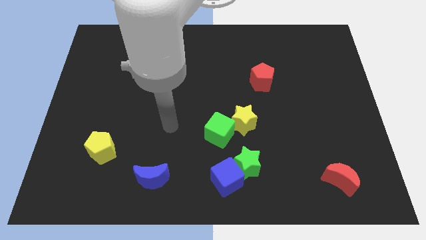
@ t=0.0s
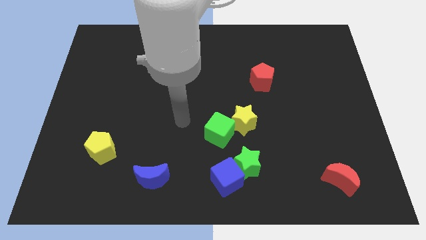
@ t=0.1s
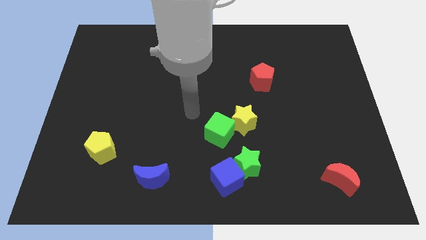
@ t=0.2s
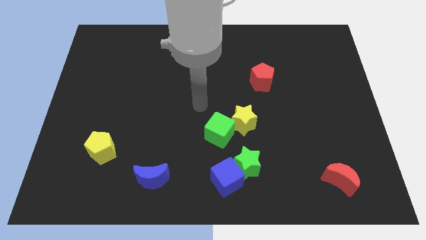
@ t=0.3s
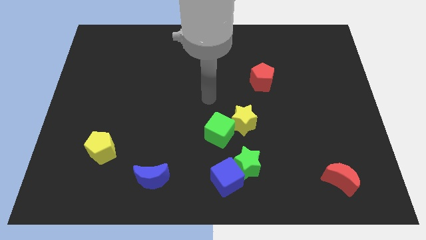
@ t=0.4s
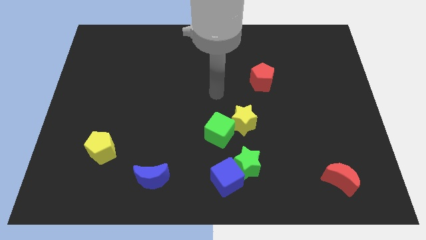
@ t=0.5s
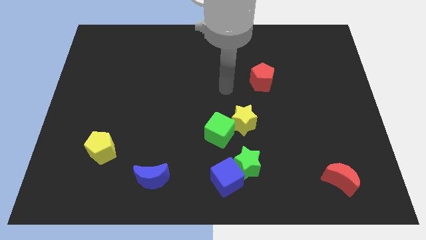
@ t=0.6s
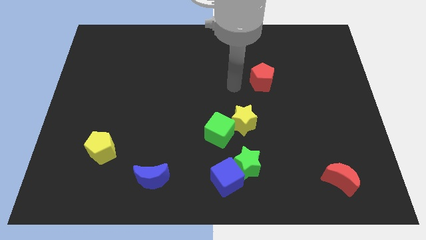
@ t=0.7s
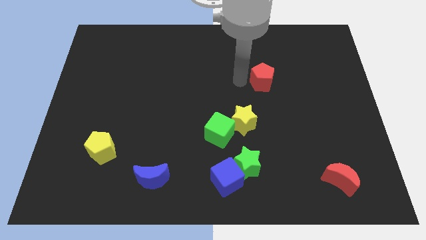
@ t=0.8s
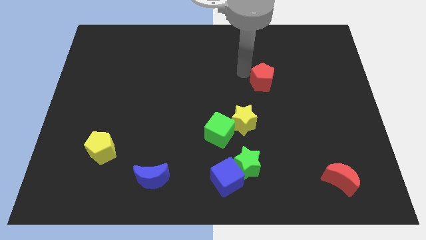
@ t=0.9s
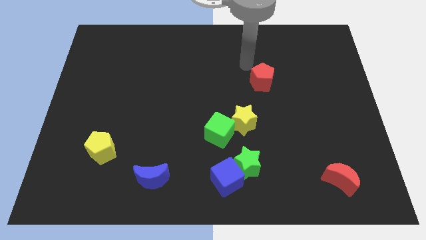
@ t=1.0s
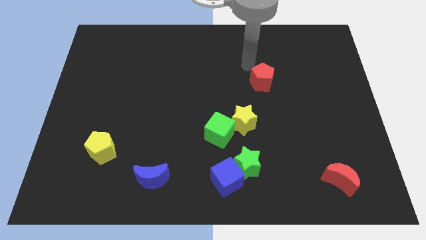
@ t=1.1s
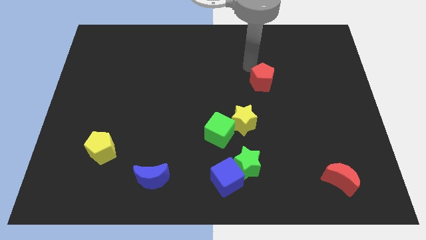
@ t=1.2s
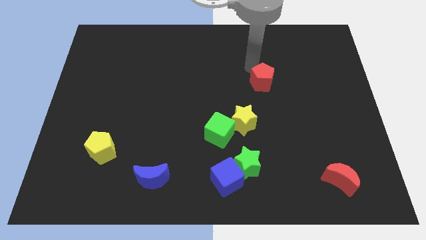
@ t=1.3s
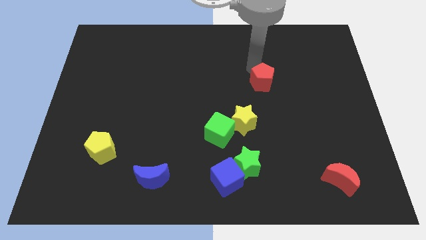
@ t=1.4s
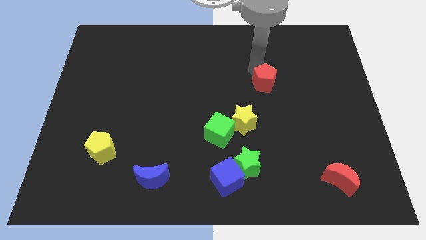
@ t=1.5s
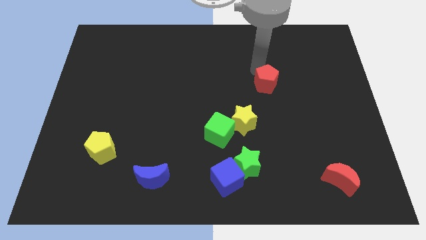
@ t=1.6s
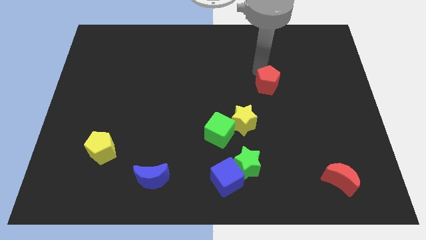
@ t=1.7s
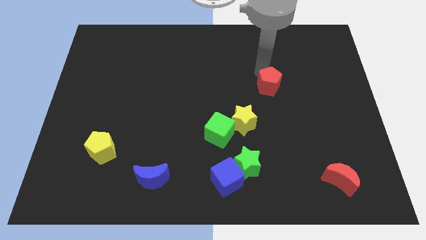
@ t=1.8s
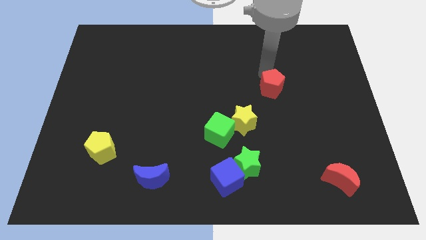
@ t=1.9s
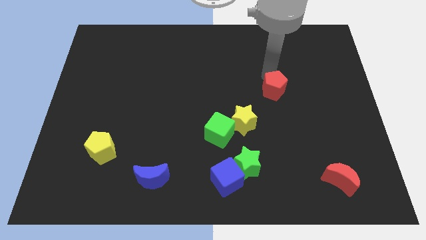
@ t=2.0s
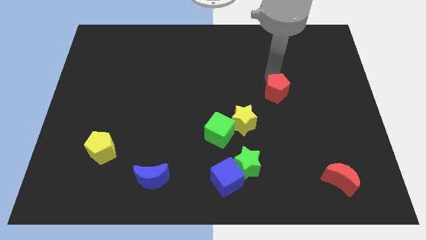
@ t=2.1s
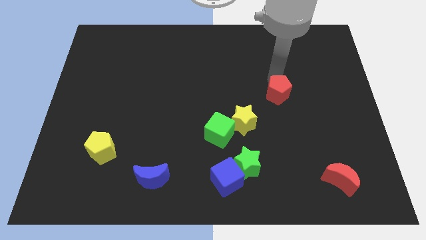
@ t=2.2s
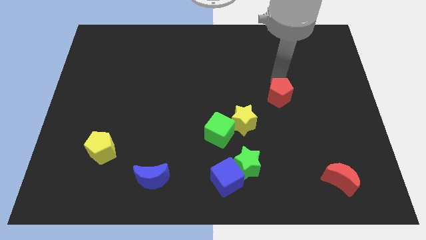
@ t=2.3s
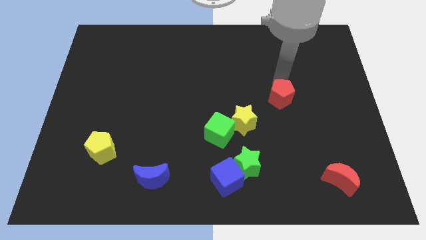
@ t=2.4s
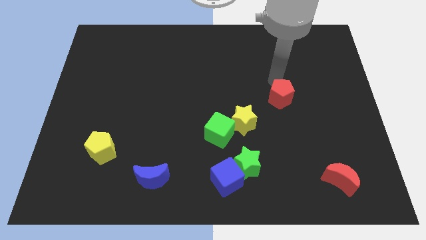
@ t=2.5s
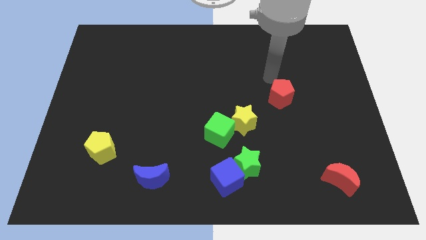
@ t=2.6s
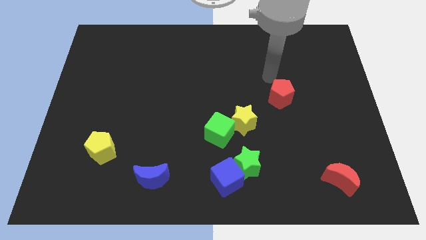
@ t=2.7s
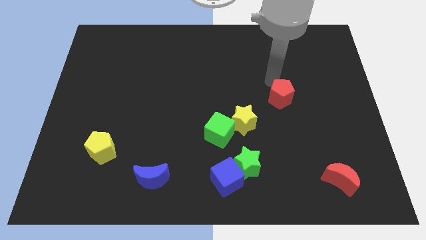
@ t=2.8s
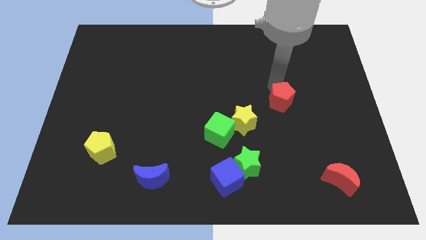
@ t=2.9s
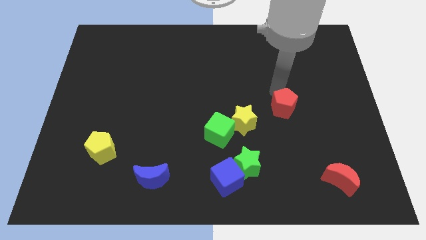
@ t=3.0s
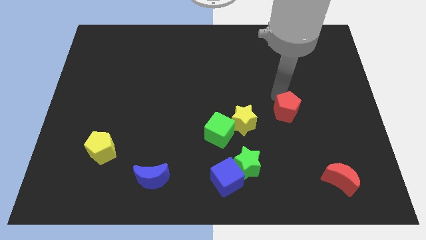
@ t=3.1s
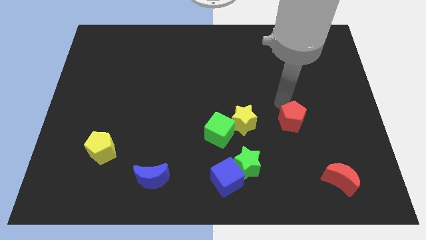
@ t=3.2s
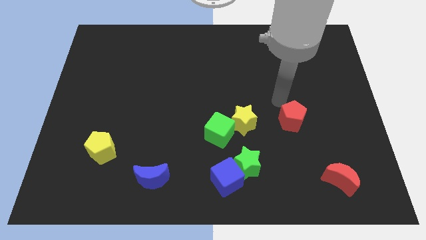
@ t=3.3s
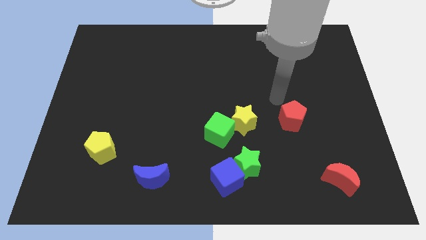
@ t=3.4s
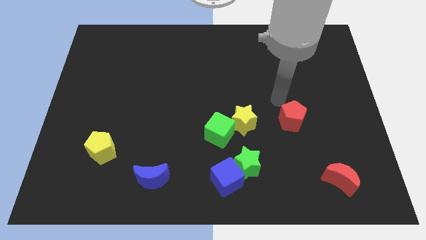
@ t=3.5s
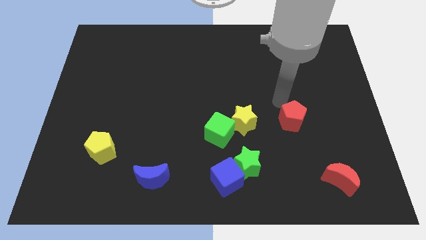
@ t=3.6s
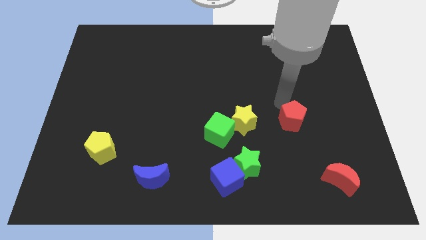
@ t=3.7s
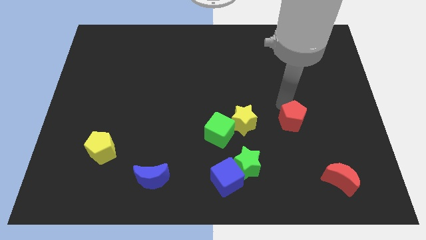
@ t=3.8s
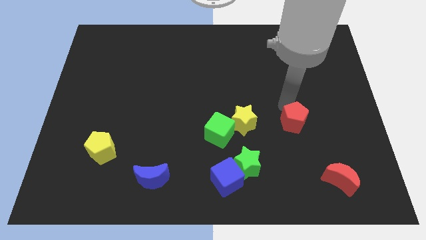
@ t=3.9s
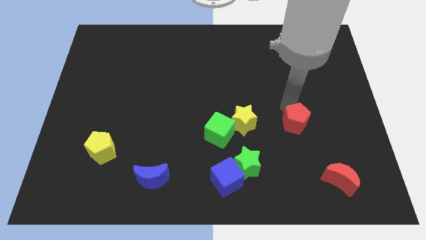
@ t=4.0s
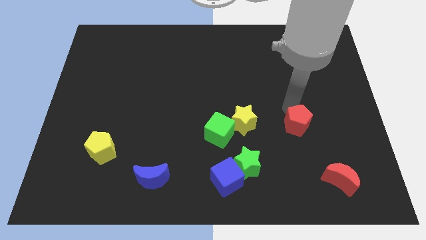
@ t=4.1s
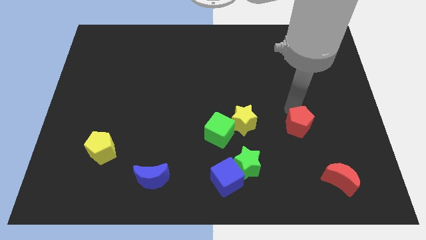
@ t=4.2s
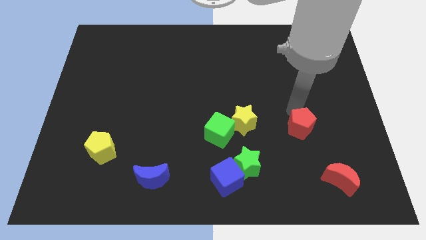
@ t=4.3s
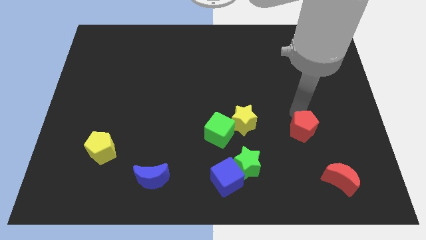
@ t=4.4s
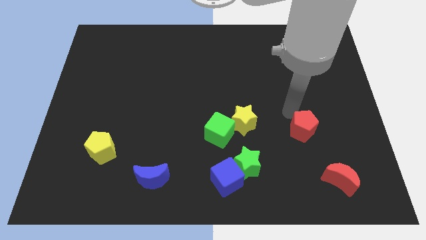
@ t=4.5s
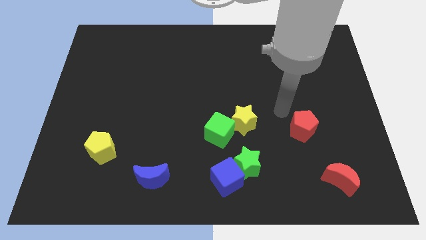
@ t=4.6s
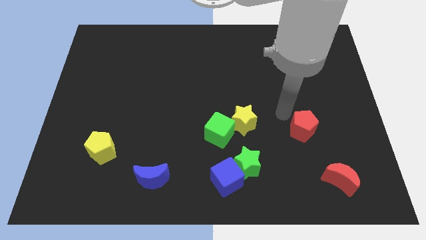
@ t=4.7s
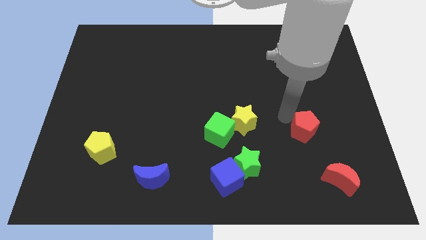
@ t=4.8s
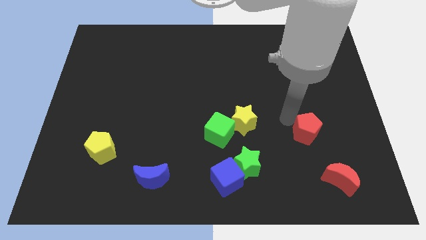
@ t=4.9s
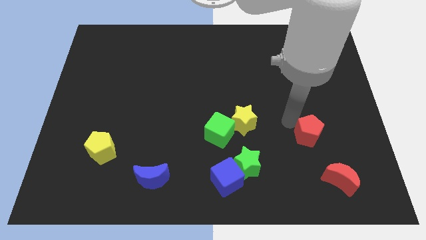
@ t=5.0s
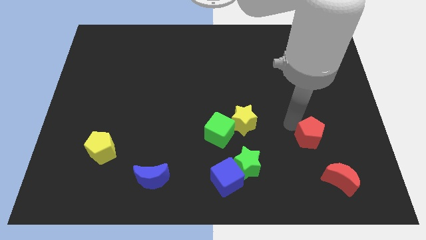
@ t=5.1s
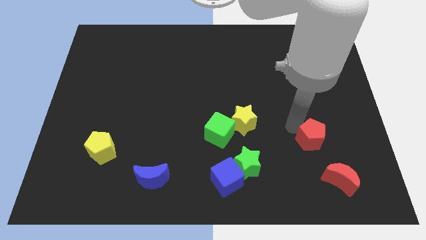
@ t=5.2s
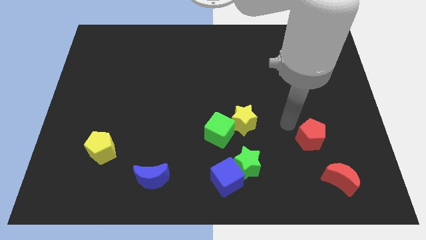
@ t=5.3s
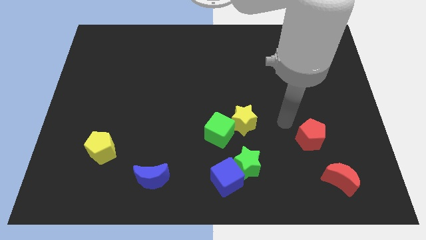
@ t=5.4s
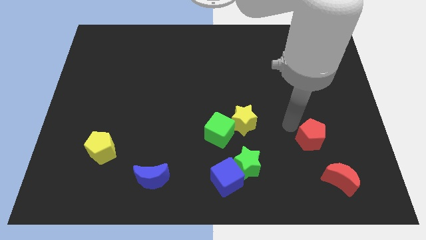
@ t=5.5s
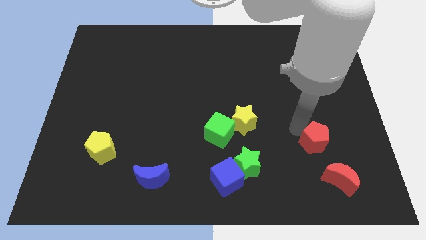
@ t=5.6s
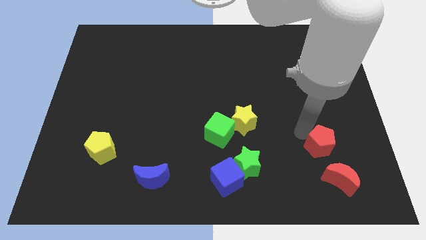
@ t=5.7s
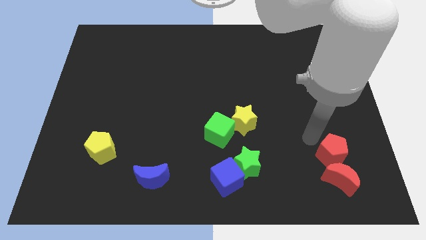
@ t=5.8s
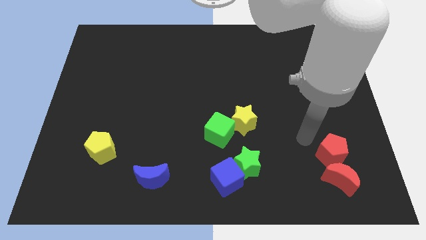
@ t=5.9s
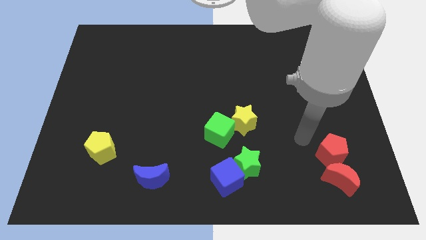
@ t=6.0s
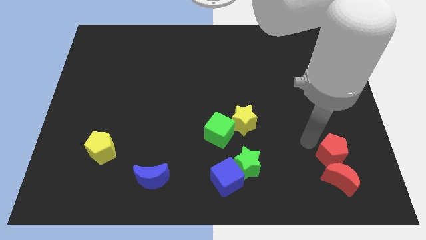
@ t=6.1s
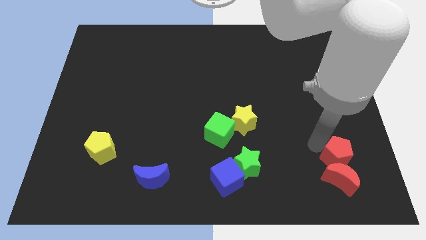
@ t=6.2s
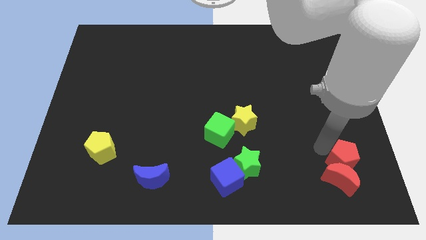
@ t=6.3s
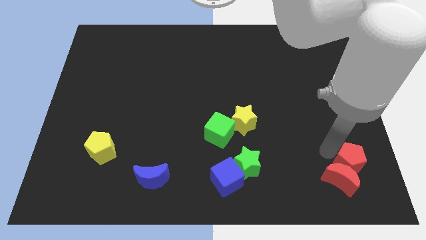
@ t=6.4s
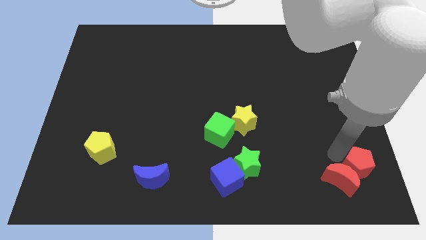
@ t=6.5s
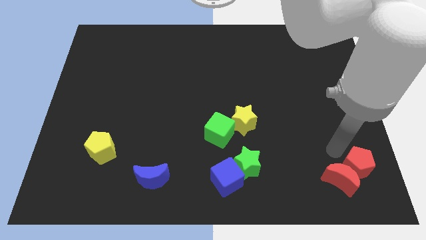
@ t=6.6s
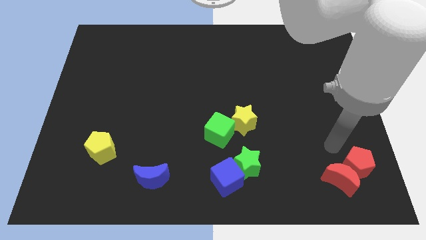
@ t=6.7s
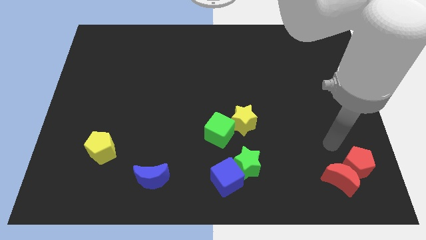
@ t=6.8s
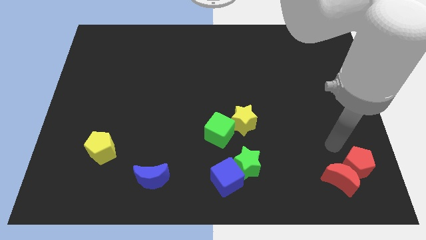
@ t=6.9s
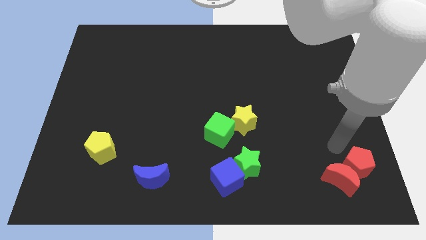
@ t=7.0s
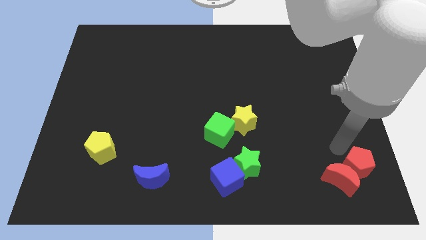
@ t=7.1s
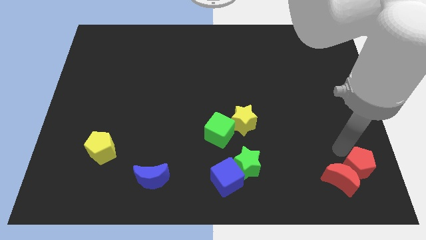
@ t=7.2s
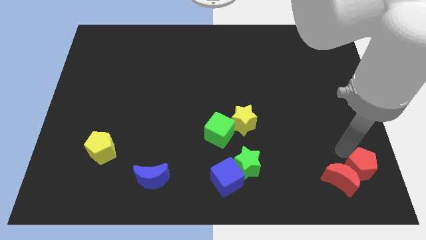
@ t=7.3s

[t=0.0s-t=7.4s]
push the red pentagon to the bottom right
